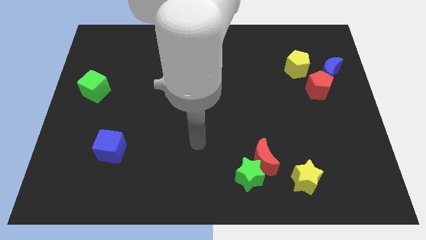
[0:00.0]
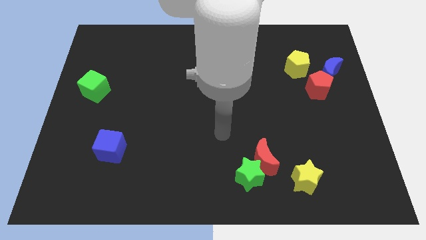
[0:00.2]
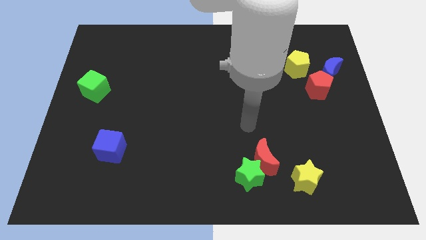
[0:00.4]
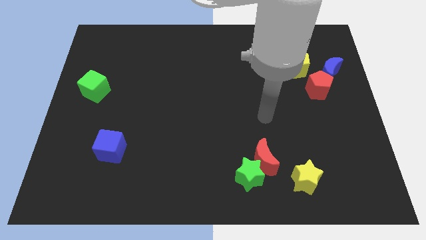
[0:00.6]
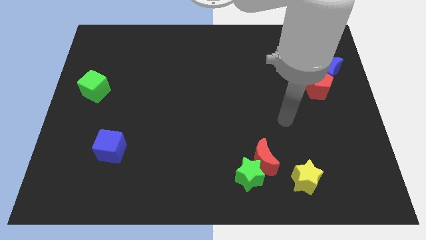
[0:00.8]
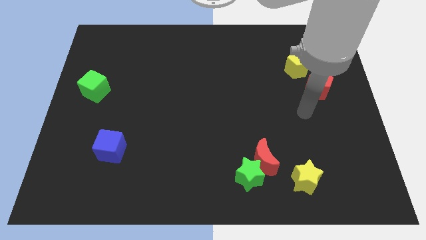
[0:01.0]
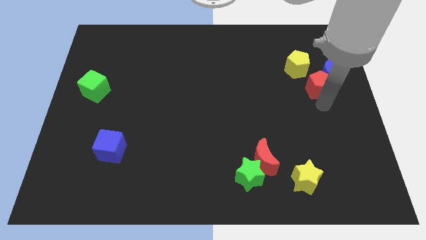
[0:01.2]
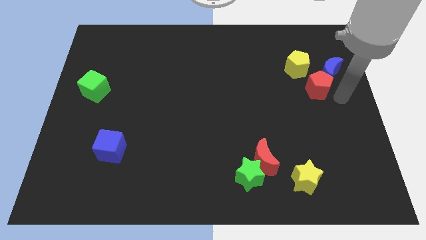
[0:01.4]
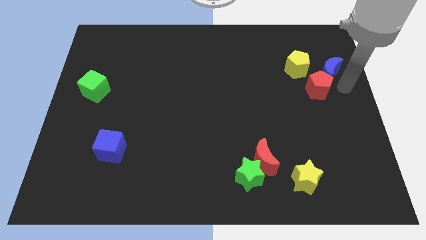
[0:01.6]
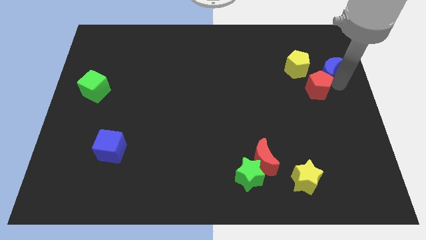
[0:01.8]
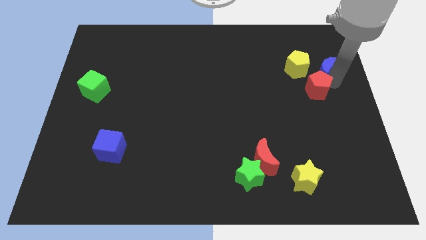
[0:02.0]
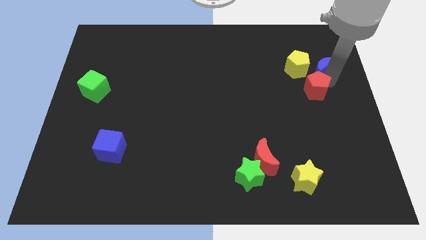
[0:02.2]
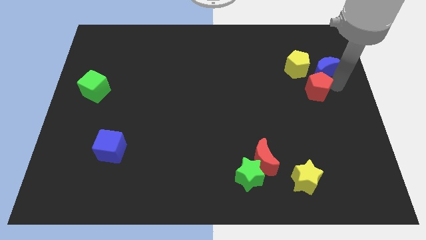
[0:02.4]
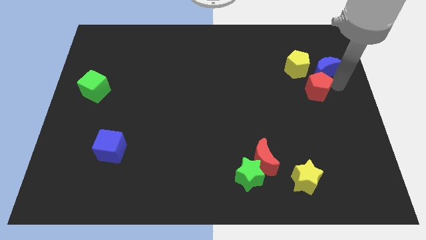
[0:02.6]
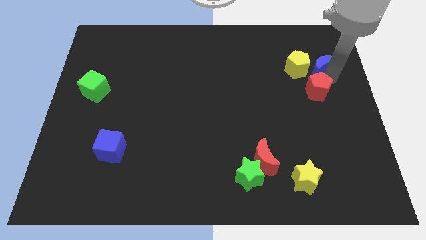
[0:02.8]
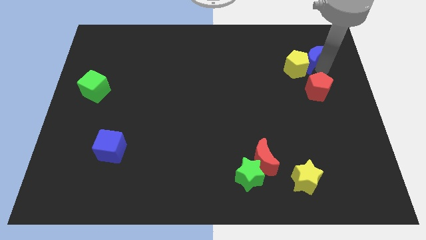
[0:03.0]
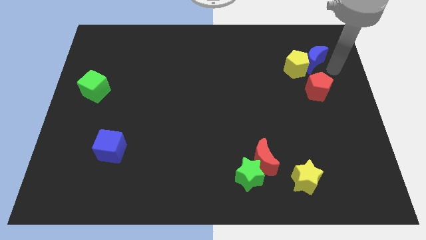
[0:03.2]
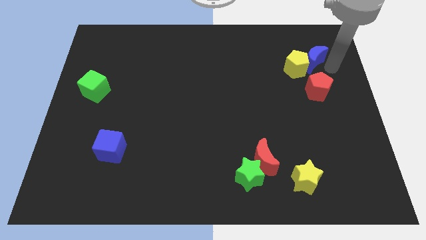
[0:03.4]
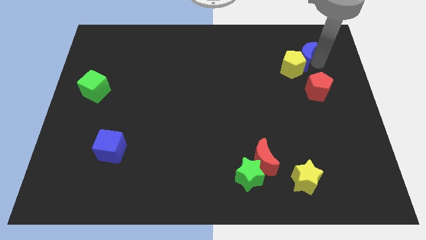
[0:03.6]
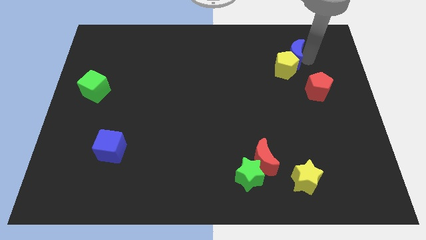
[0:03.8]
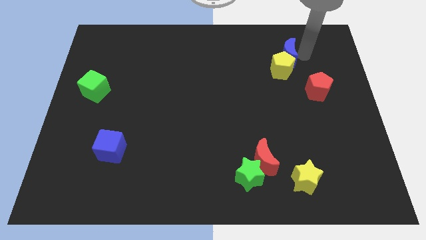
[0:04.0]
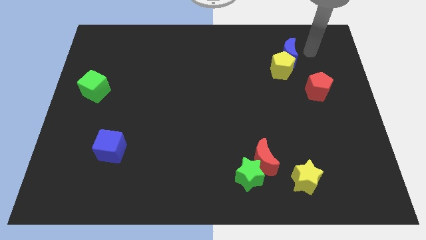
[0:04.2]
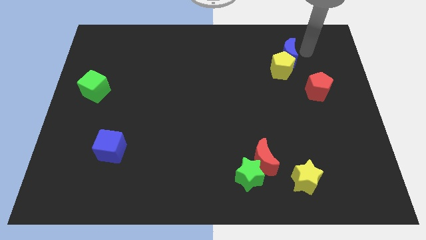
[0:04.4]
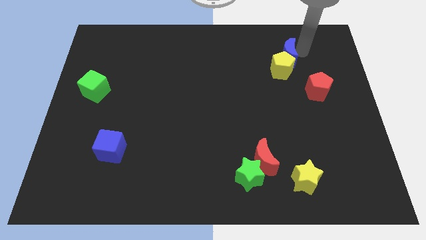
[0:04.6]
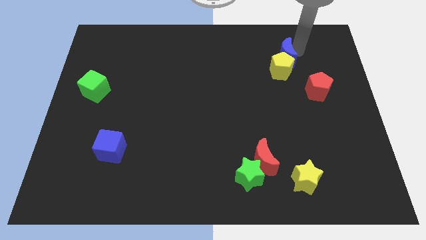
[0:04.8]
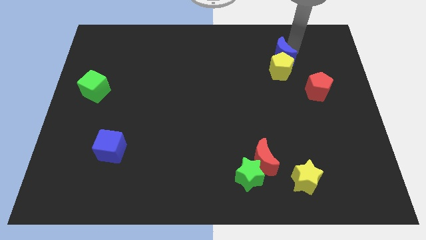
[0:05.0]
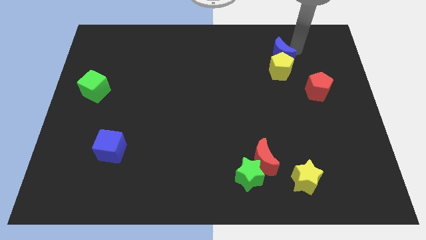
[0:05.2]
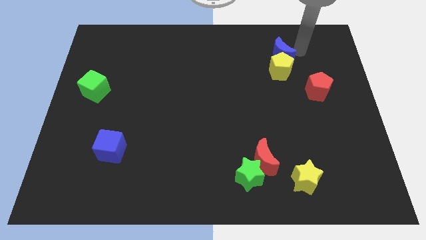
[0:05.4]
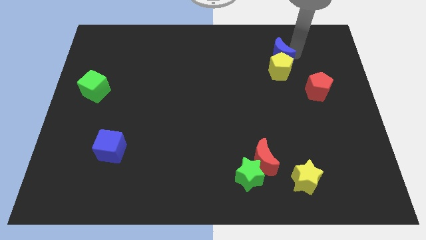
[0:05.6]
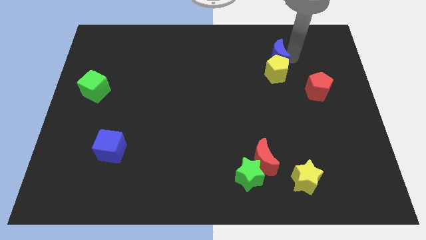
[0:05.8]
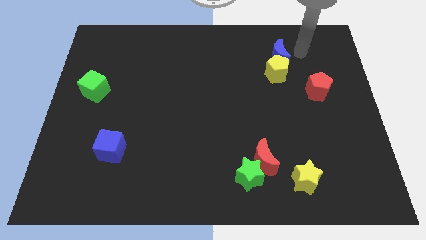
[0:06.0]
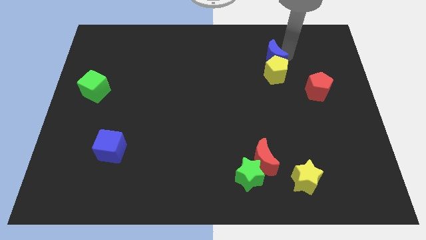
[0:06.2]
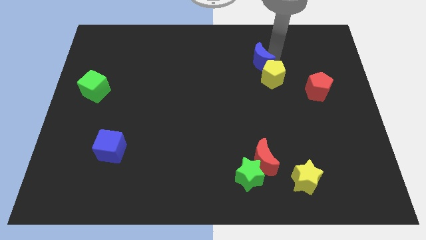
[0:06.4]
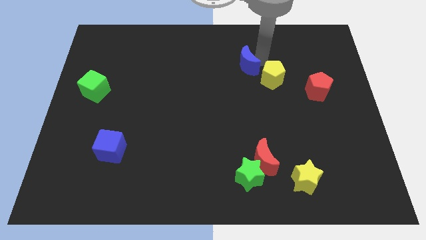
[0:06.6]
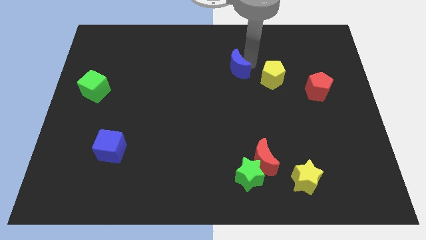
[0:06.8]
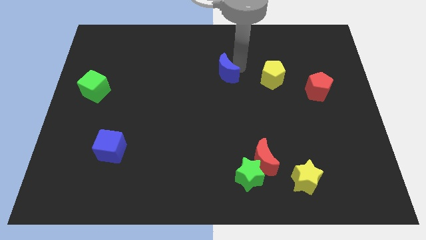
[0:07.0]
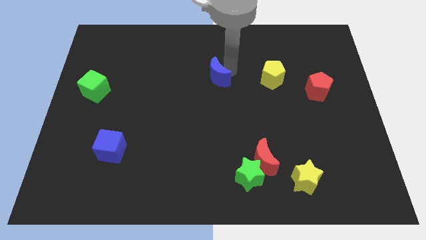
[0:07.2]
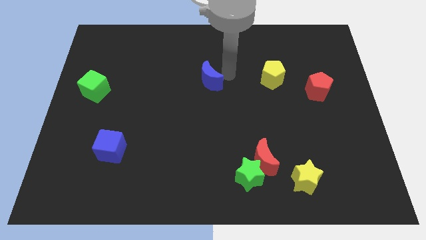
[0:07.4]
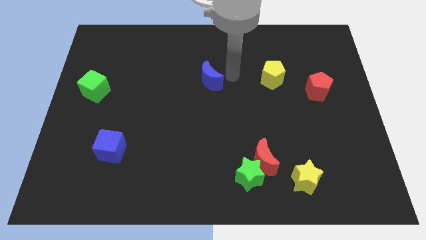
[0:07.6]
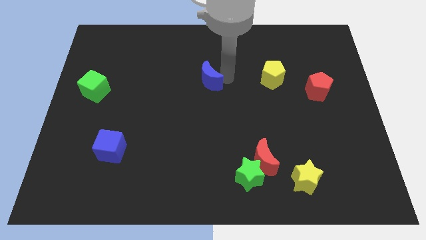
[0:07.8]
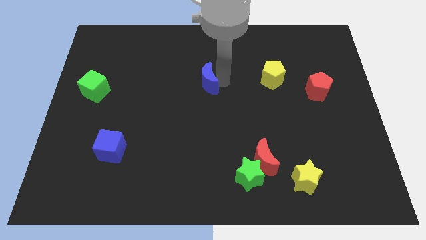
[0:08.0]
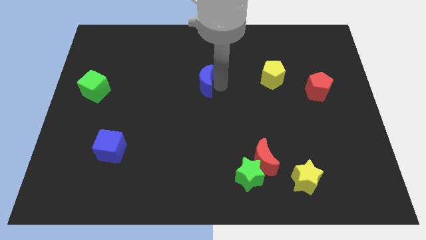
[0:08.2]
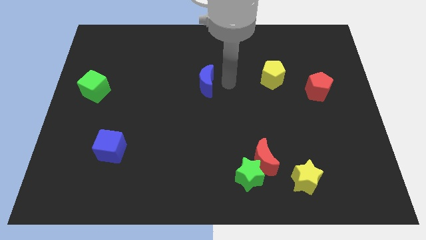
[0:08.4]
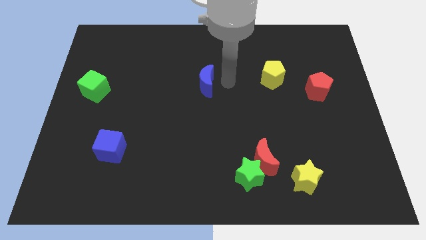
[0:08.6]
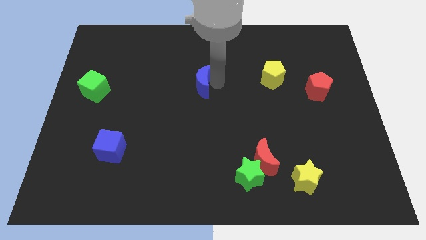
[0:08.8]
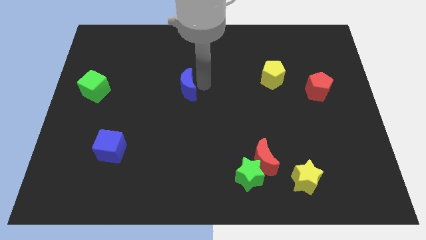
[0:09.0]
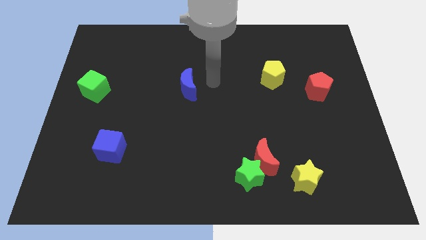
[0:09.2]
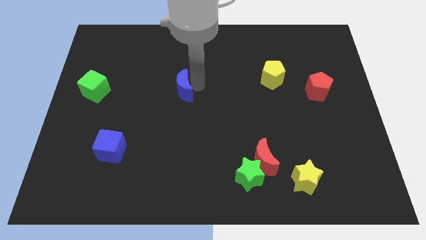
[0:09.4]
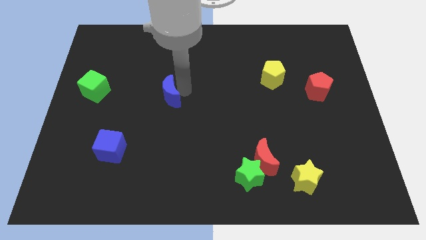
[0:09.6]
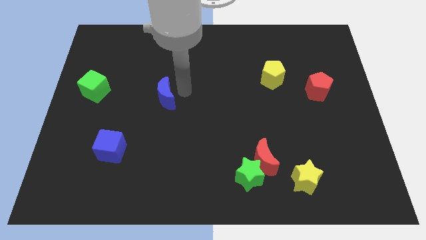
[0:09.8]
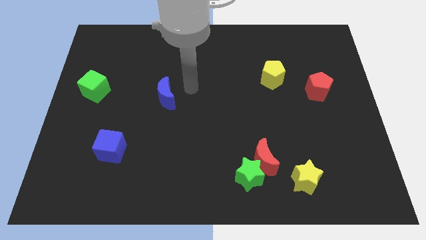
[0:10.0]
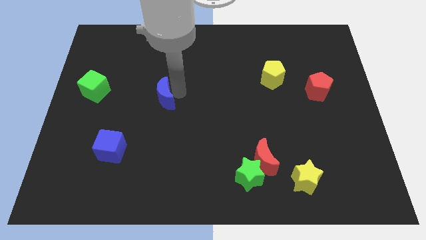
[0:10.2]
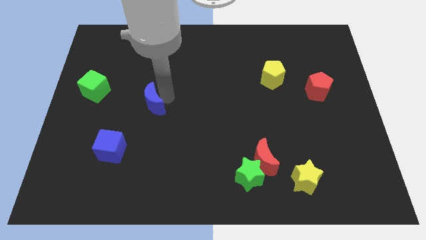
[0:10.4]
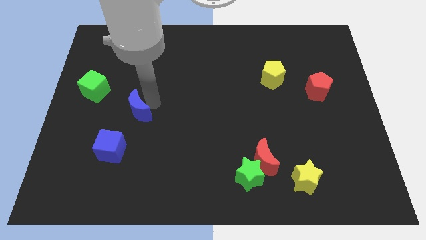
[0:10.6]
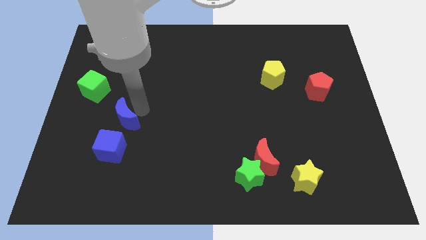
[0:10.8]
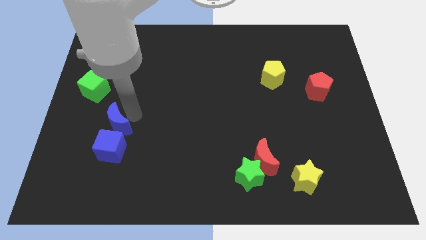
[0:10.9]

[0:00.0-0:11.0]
push the blue moon diagonally up and to the left of the blue cube

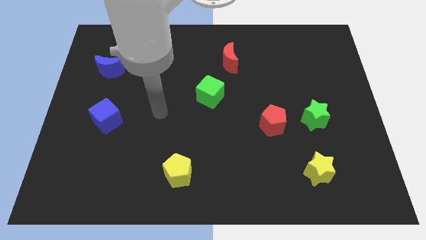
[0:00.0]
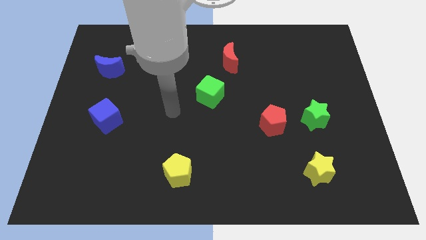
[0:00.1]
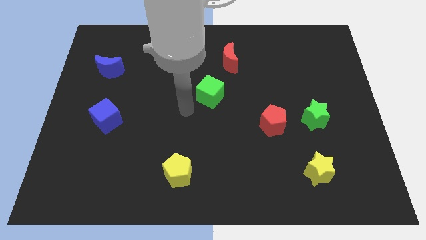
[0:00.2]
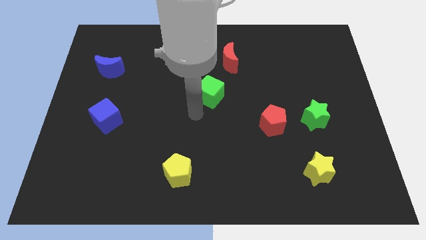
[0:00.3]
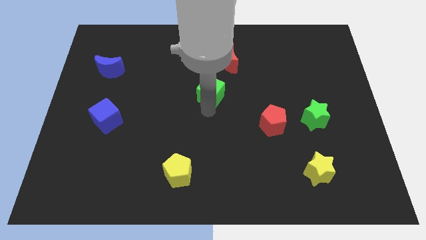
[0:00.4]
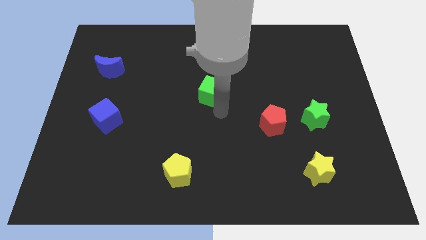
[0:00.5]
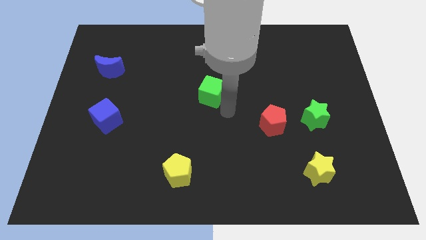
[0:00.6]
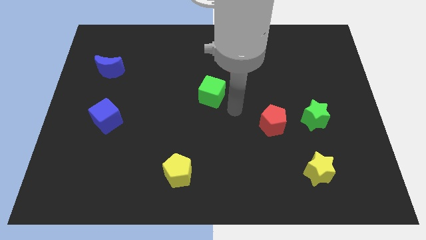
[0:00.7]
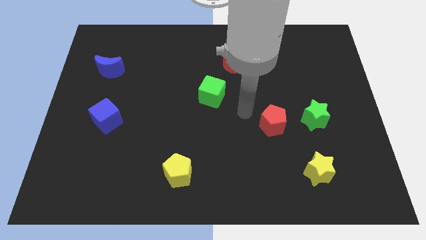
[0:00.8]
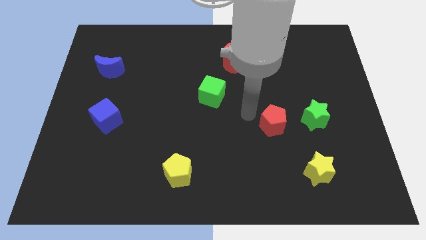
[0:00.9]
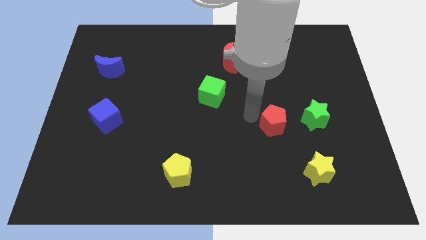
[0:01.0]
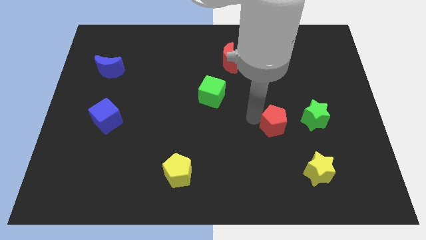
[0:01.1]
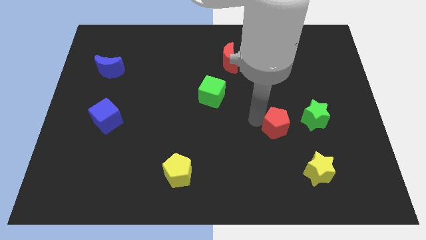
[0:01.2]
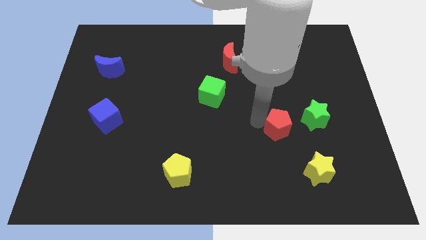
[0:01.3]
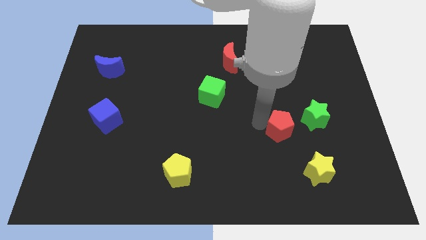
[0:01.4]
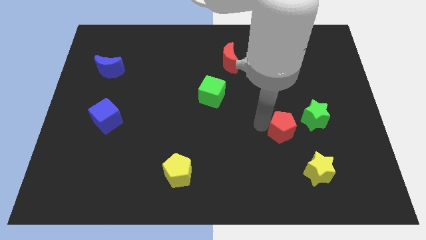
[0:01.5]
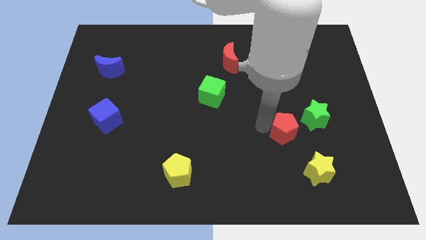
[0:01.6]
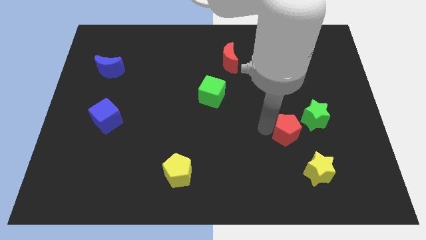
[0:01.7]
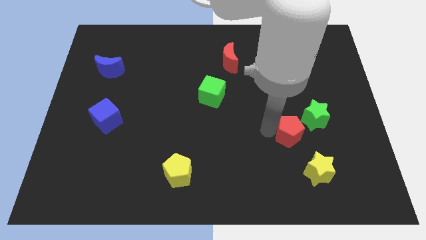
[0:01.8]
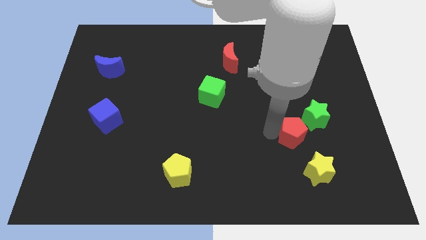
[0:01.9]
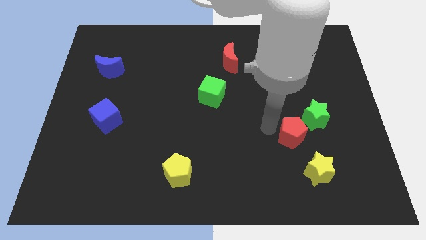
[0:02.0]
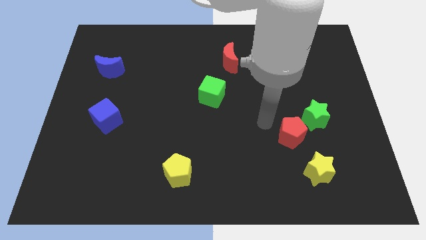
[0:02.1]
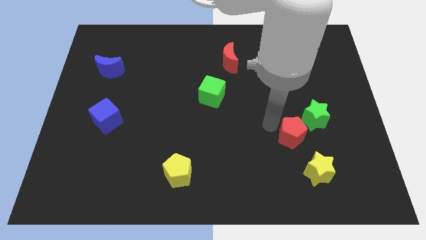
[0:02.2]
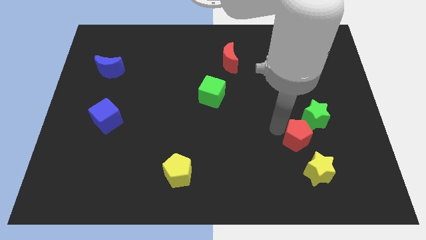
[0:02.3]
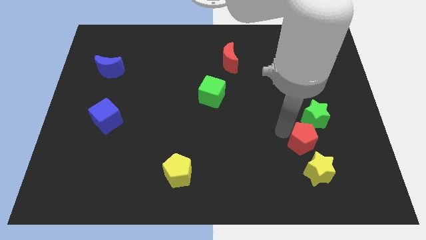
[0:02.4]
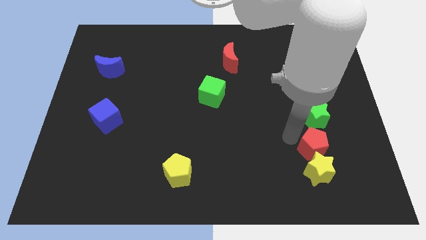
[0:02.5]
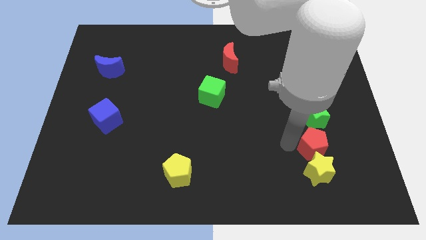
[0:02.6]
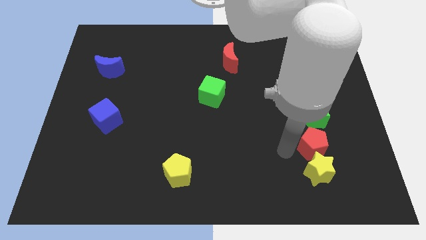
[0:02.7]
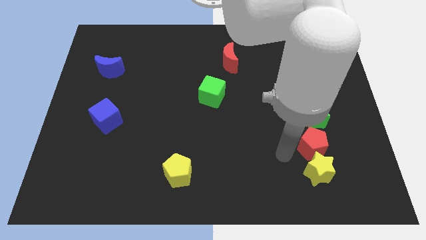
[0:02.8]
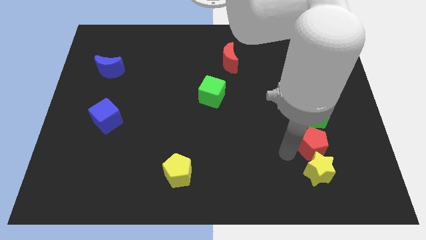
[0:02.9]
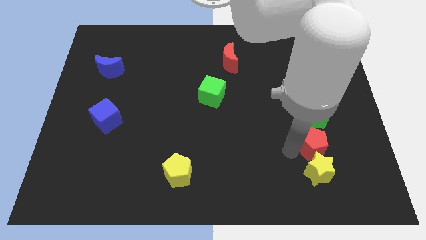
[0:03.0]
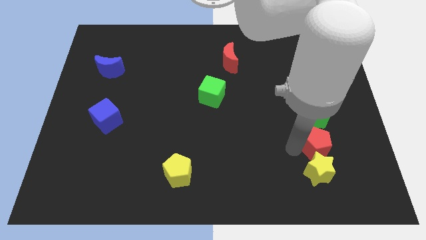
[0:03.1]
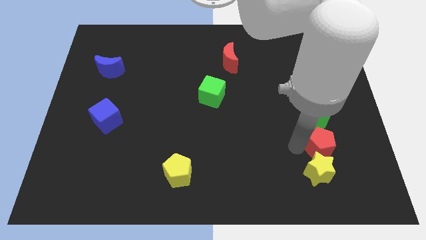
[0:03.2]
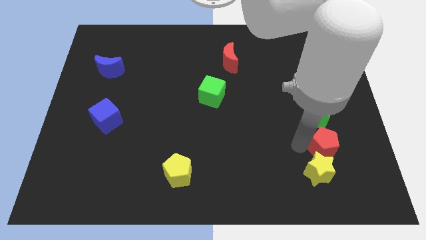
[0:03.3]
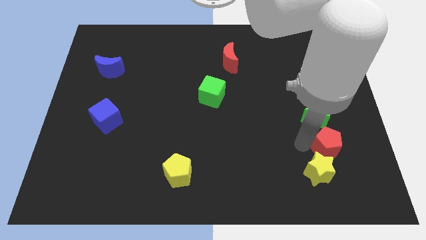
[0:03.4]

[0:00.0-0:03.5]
move the red pentagon to the bottom right side of the green star
